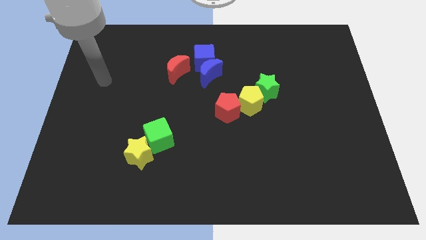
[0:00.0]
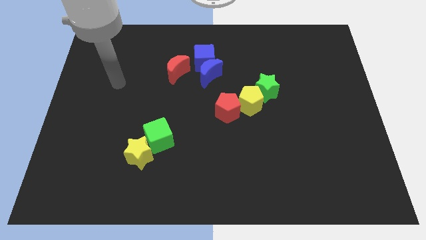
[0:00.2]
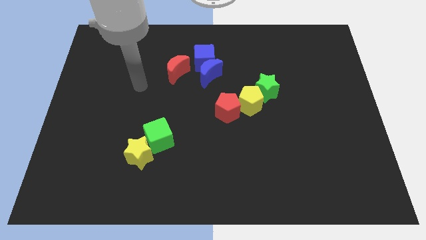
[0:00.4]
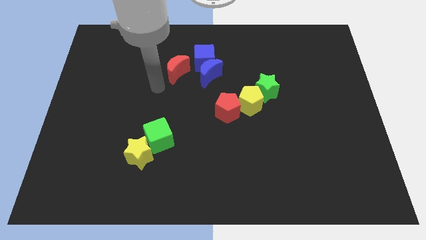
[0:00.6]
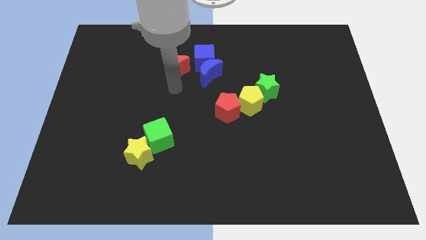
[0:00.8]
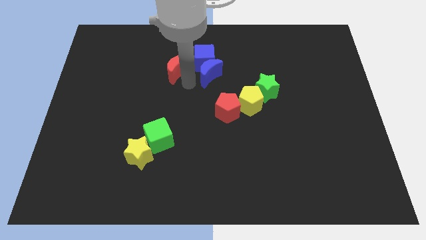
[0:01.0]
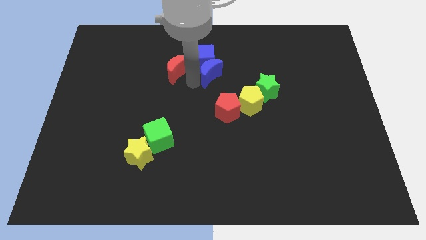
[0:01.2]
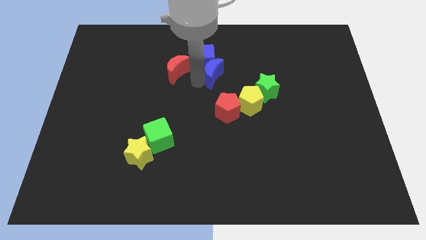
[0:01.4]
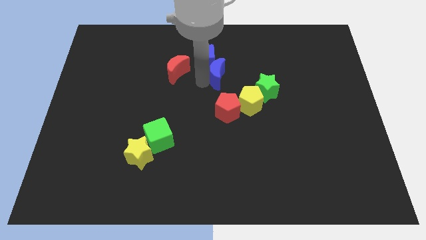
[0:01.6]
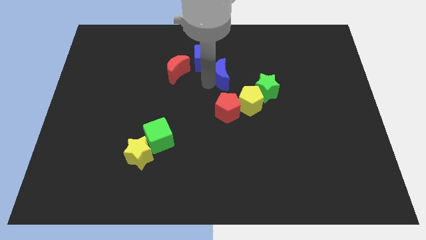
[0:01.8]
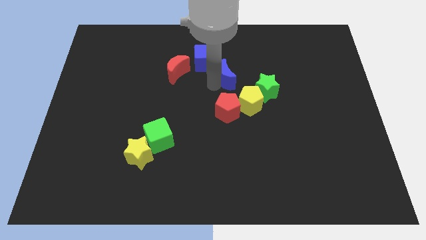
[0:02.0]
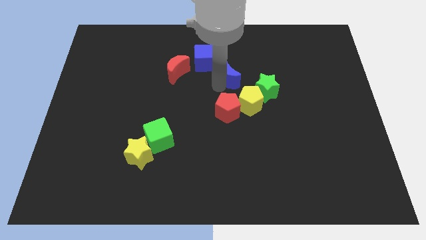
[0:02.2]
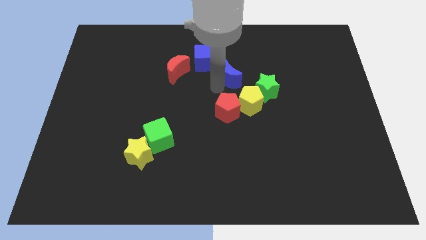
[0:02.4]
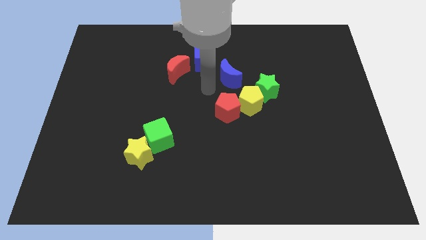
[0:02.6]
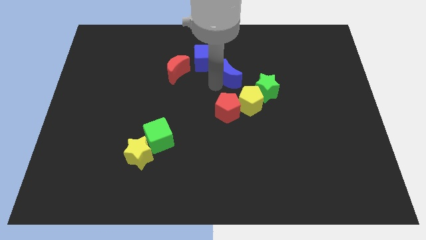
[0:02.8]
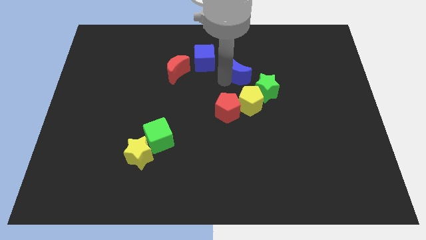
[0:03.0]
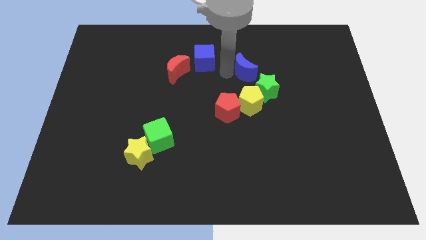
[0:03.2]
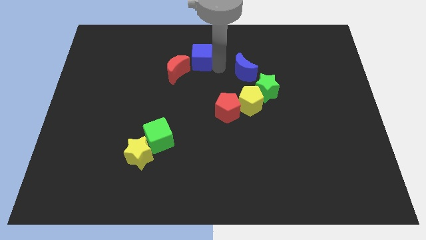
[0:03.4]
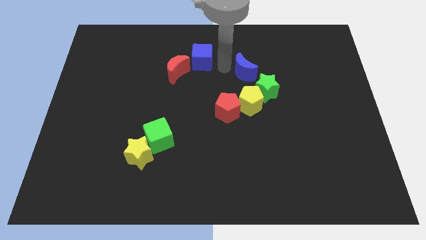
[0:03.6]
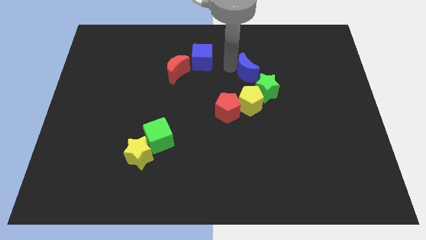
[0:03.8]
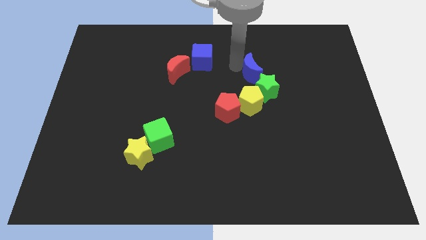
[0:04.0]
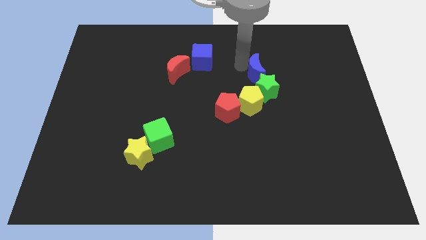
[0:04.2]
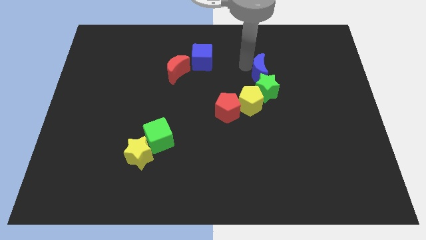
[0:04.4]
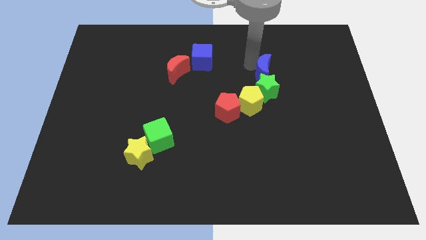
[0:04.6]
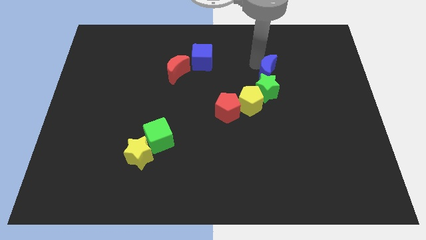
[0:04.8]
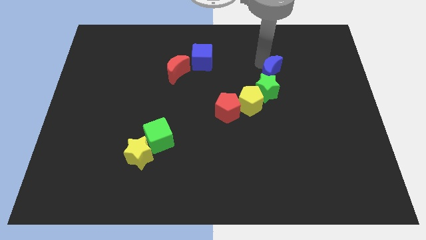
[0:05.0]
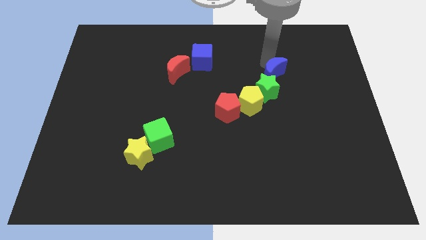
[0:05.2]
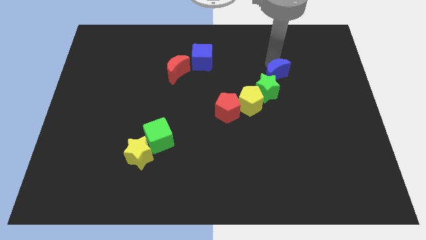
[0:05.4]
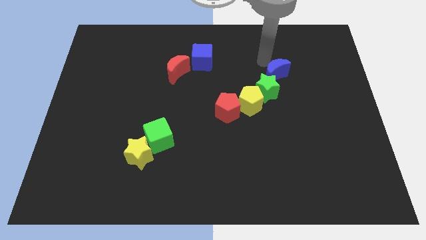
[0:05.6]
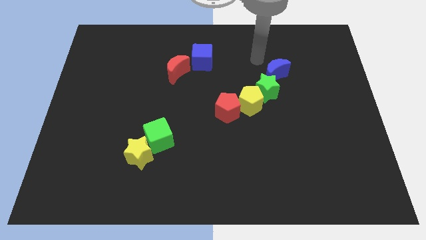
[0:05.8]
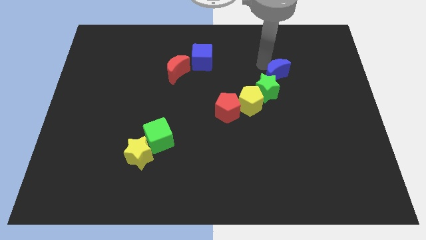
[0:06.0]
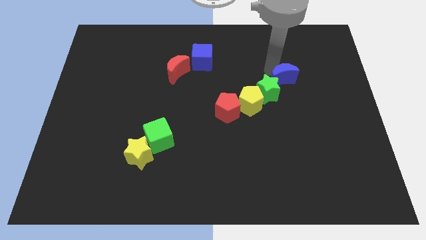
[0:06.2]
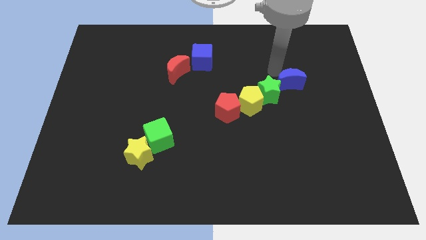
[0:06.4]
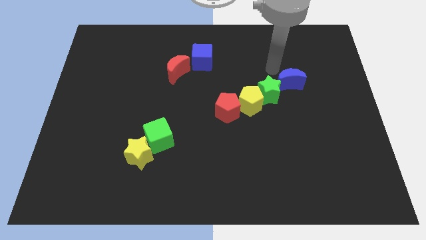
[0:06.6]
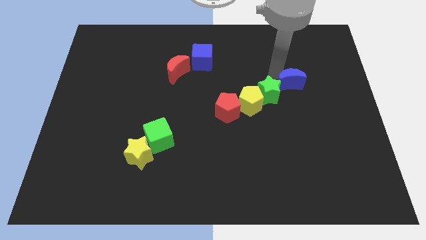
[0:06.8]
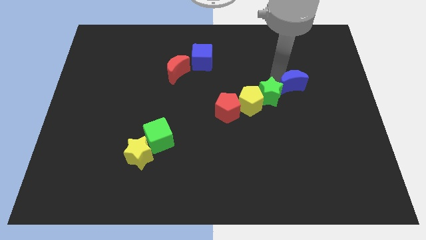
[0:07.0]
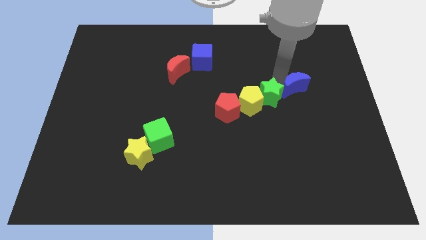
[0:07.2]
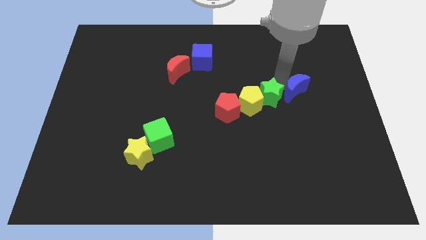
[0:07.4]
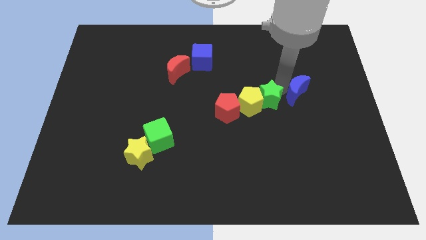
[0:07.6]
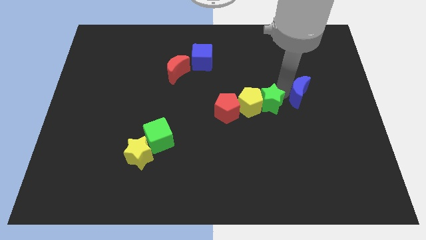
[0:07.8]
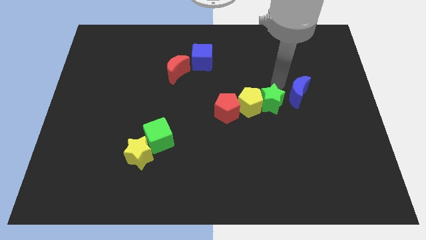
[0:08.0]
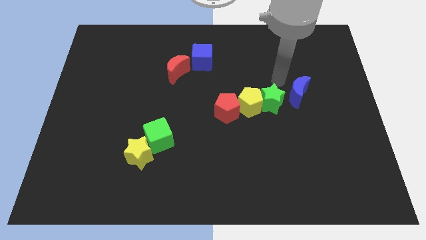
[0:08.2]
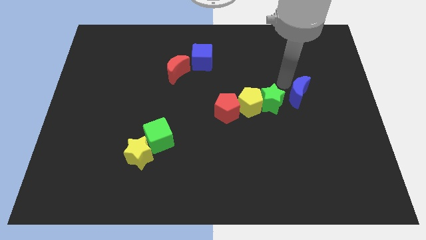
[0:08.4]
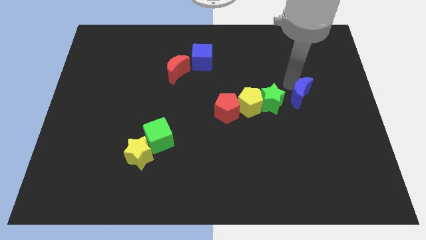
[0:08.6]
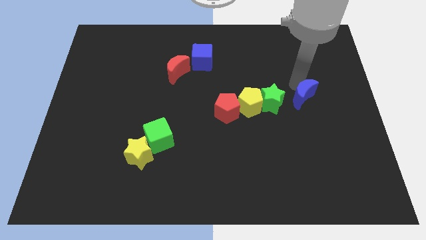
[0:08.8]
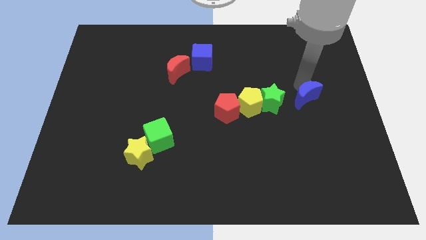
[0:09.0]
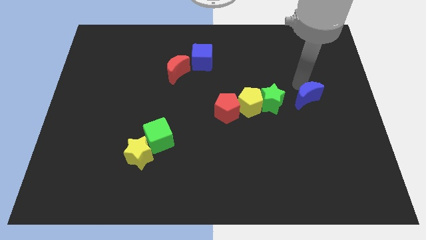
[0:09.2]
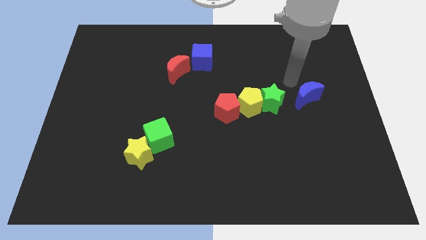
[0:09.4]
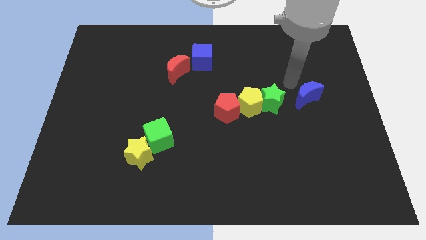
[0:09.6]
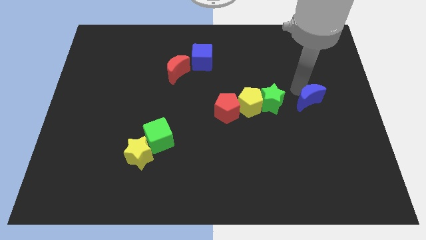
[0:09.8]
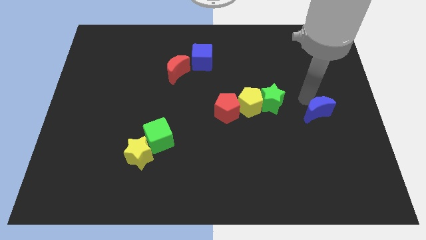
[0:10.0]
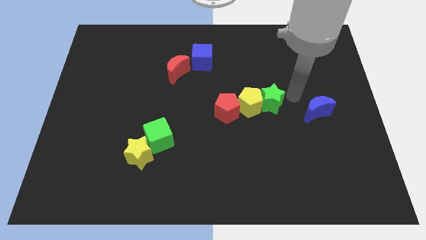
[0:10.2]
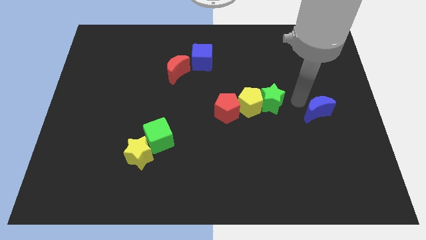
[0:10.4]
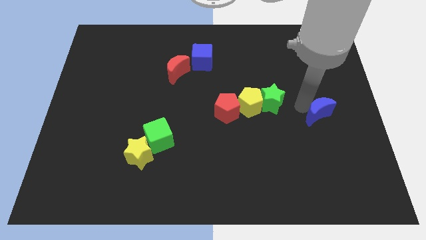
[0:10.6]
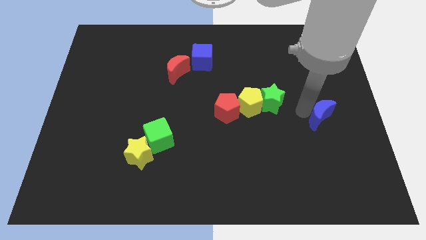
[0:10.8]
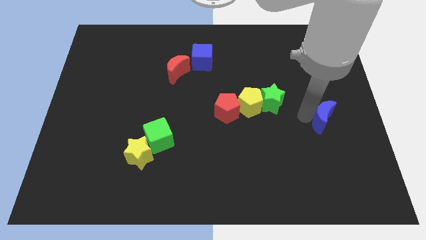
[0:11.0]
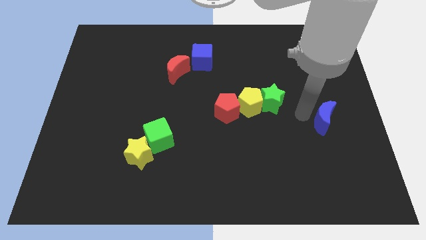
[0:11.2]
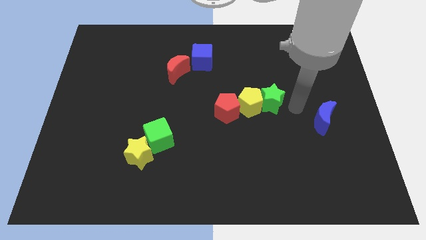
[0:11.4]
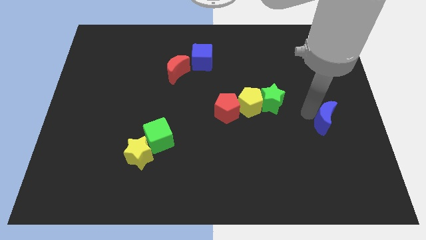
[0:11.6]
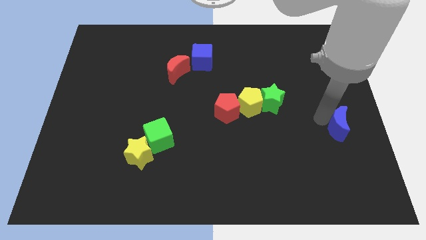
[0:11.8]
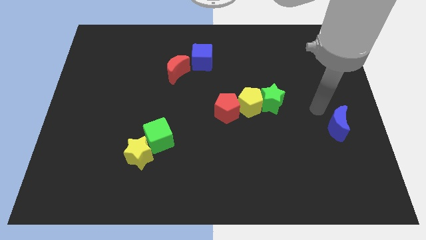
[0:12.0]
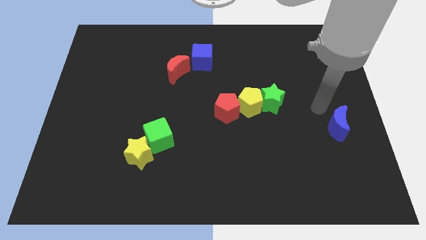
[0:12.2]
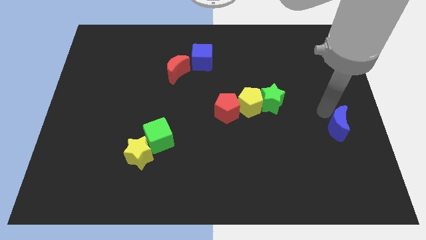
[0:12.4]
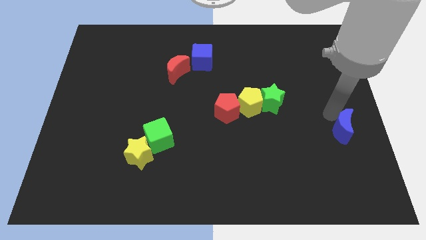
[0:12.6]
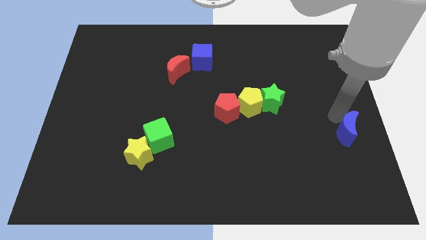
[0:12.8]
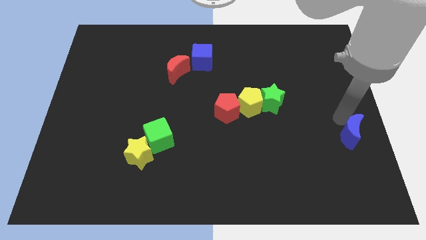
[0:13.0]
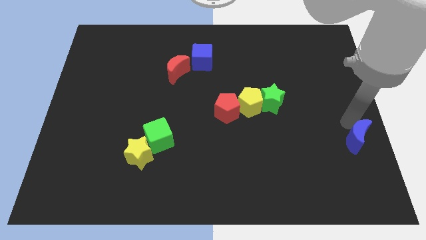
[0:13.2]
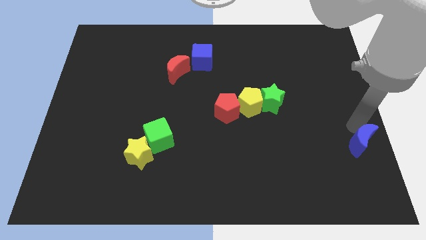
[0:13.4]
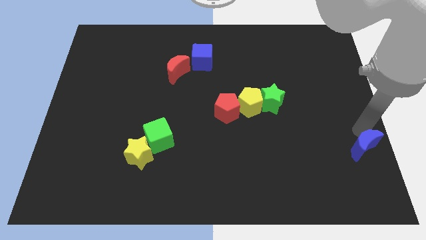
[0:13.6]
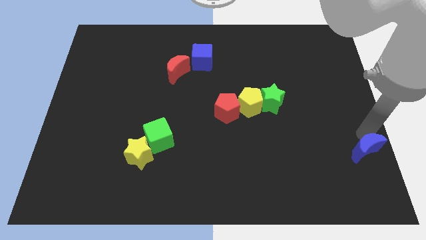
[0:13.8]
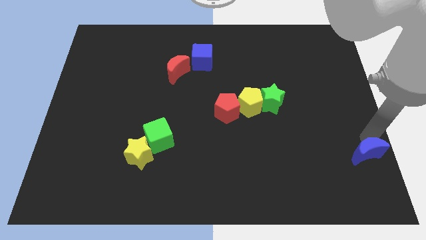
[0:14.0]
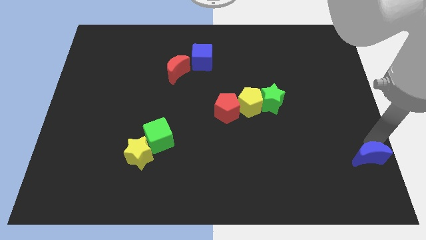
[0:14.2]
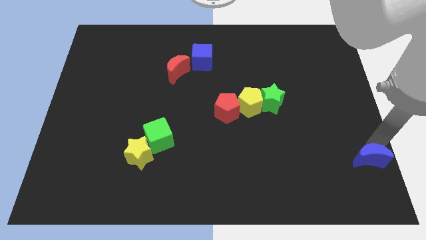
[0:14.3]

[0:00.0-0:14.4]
slide the blue moon to the lower right corner
